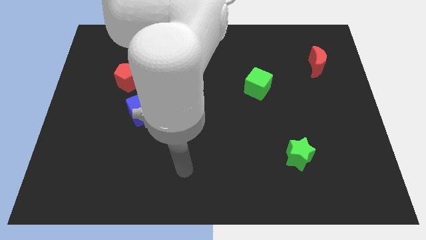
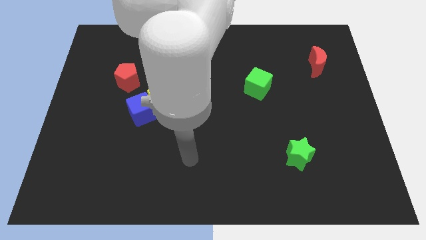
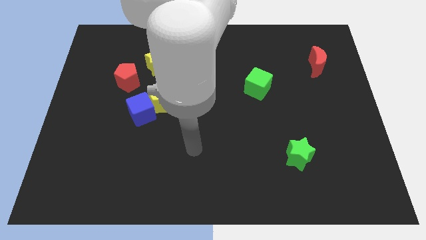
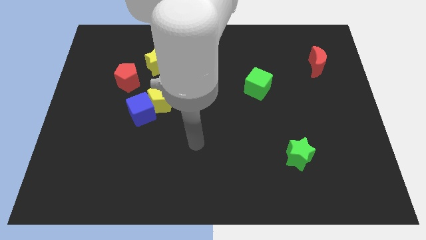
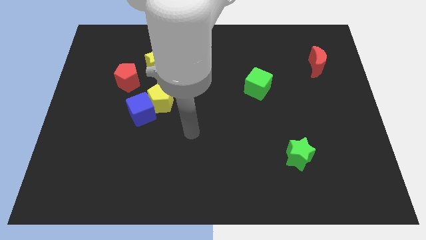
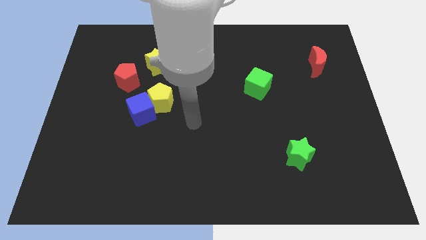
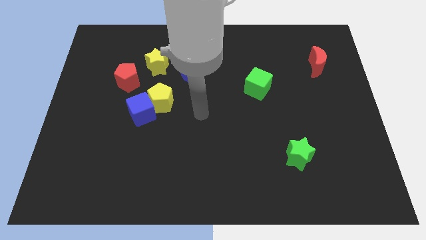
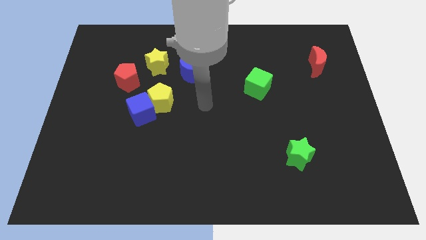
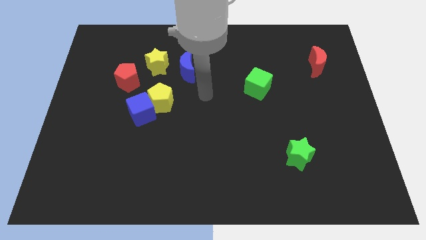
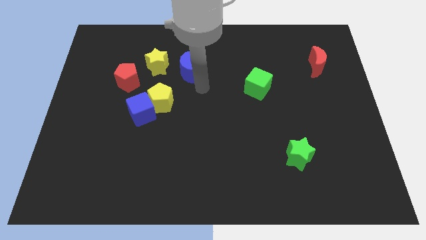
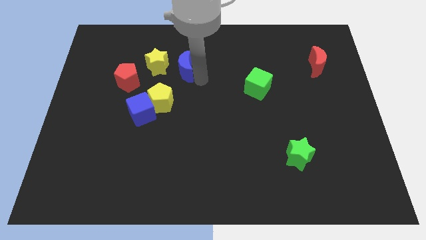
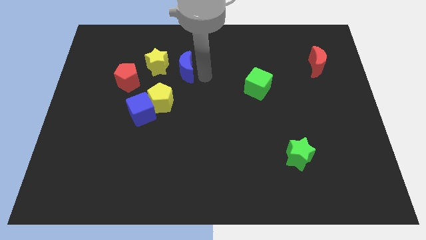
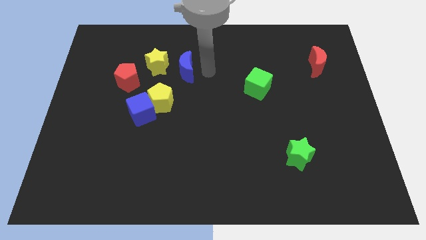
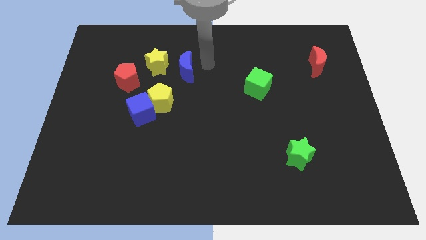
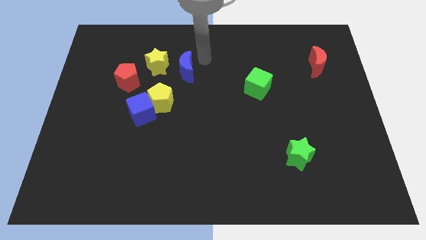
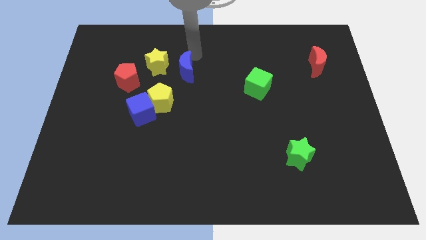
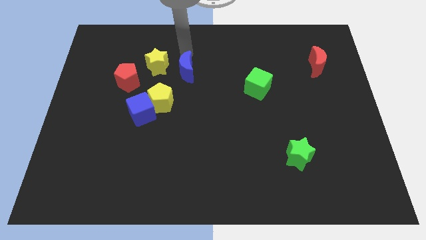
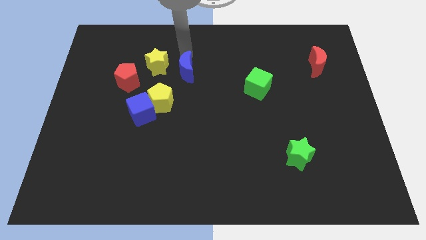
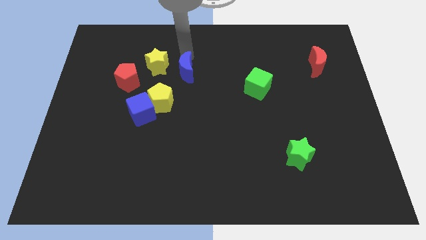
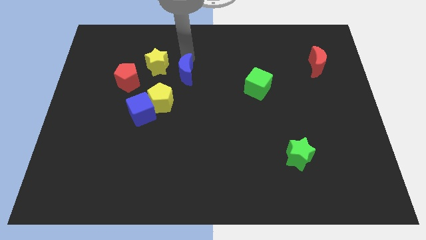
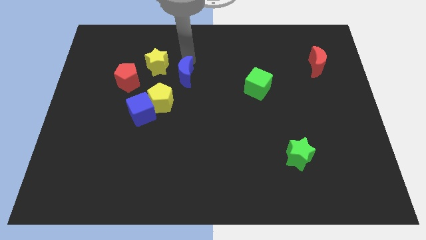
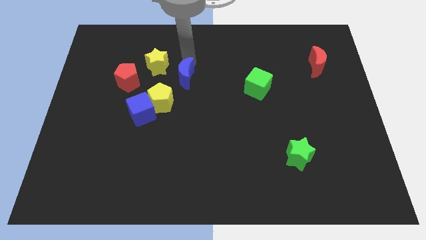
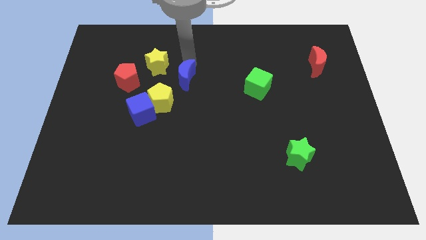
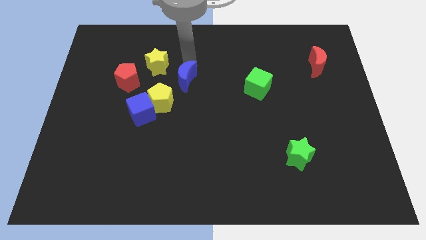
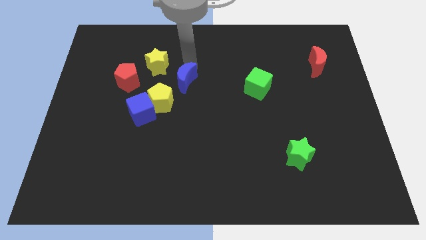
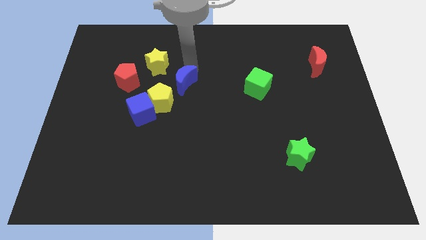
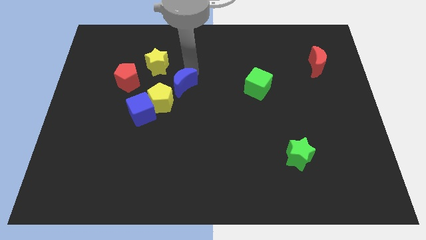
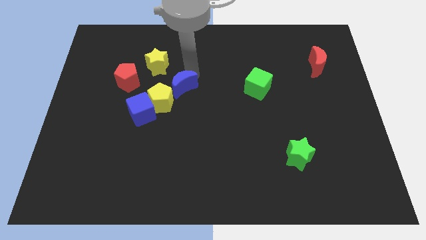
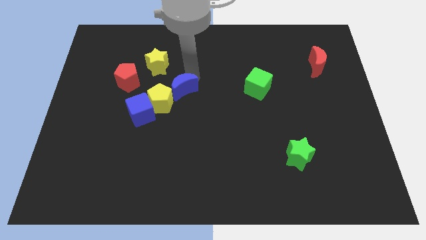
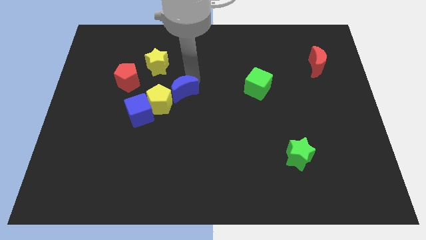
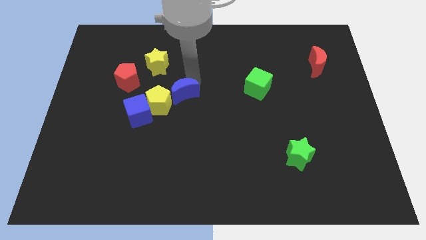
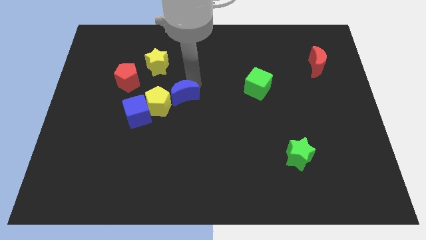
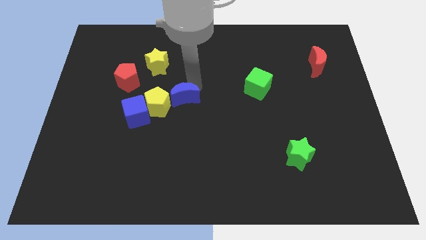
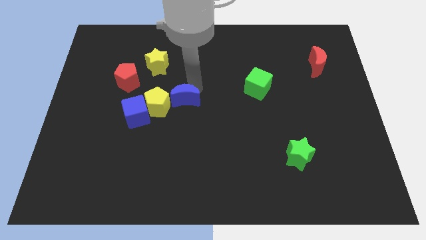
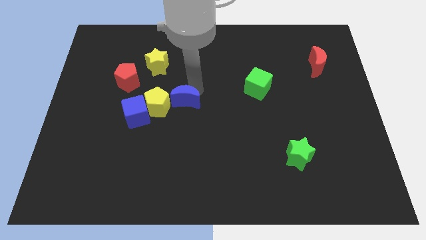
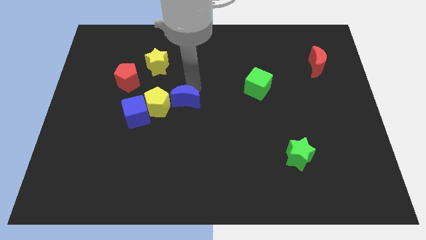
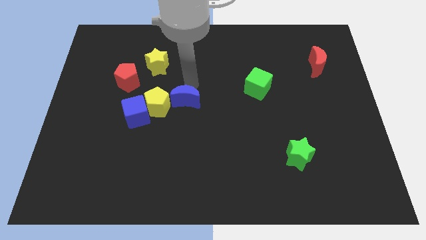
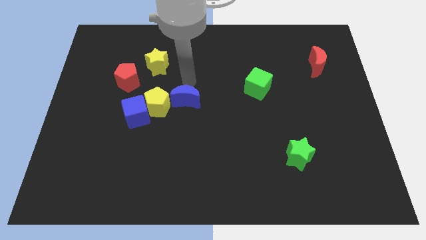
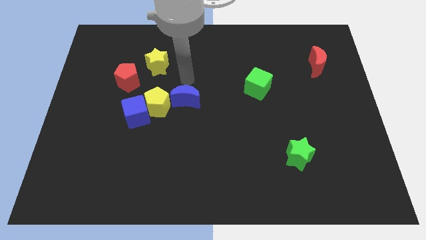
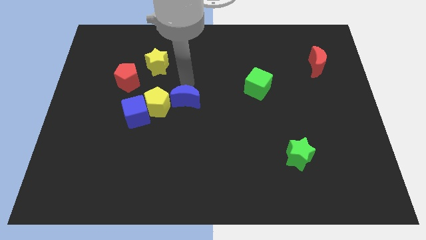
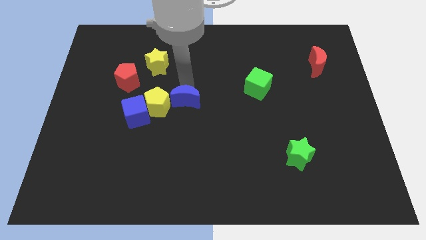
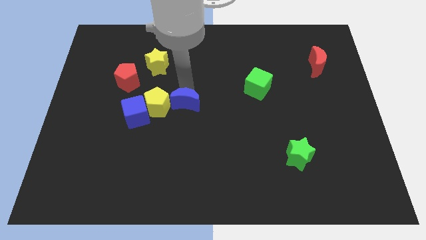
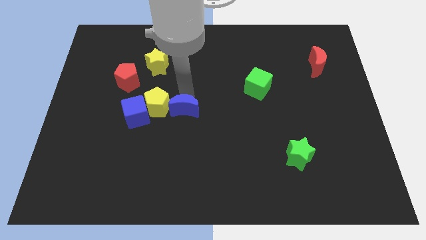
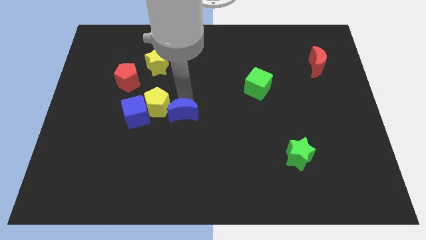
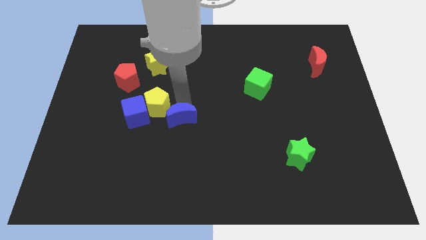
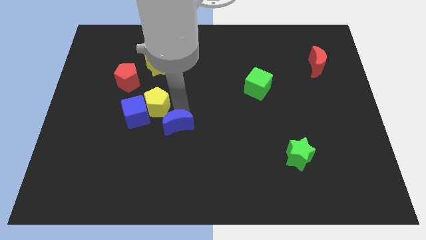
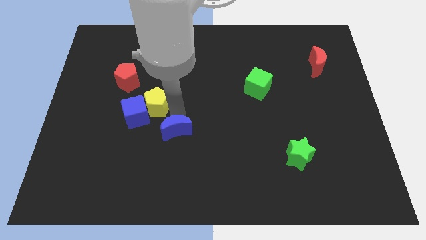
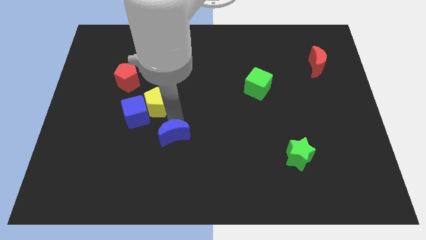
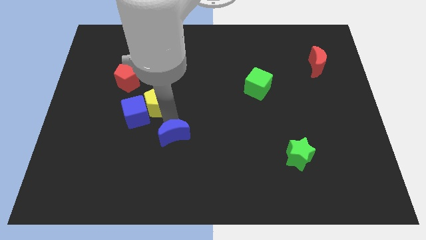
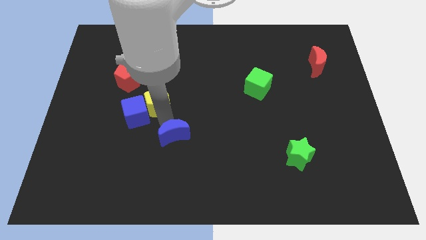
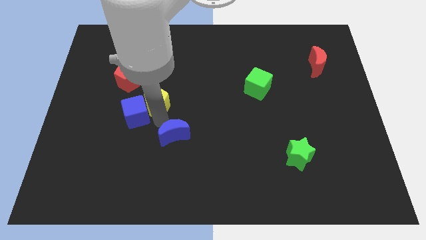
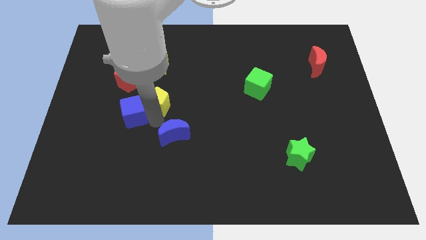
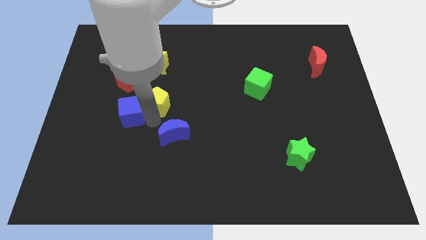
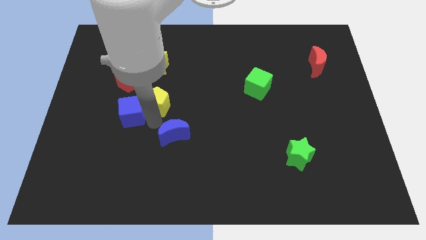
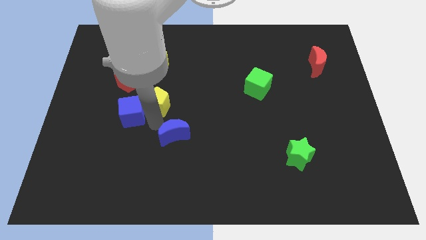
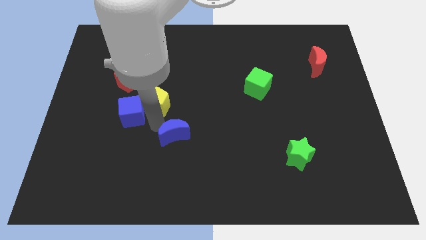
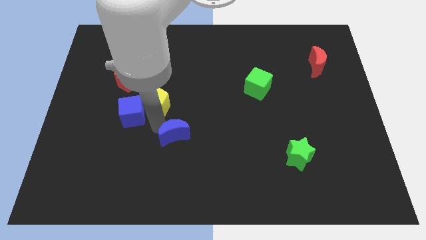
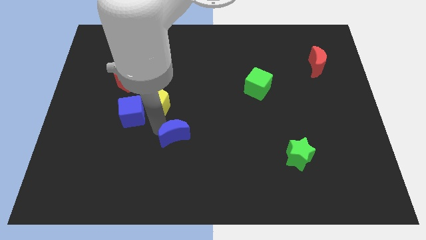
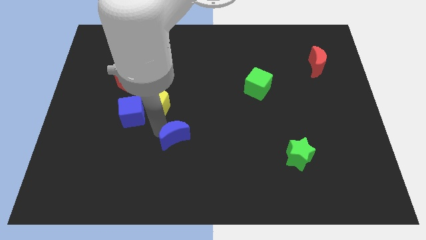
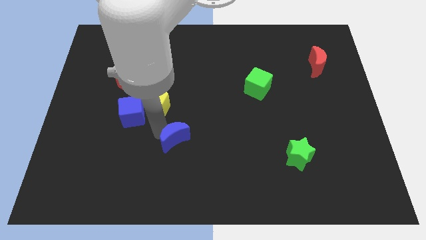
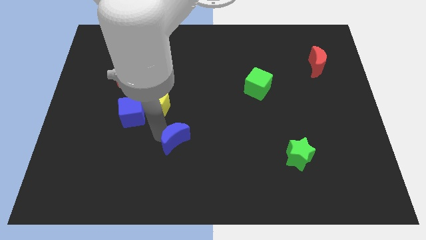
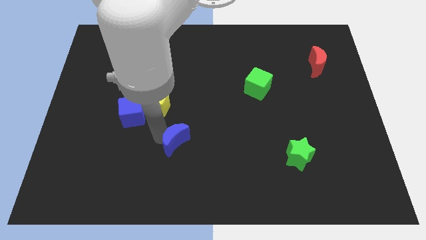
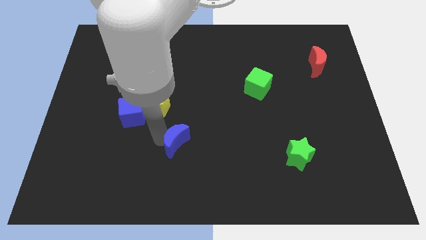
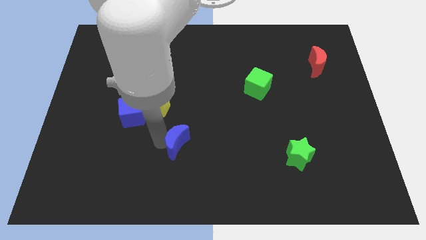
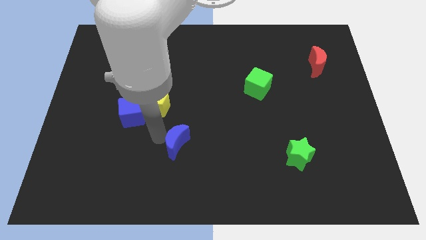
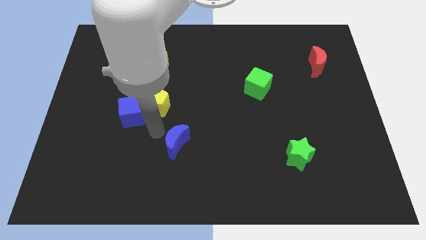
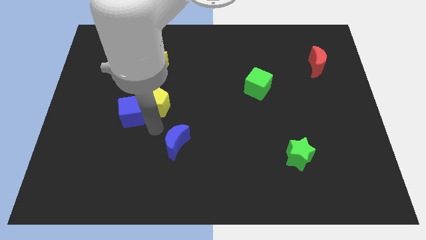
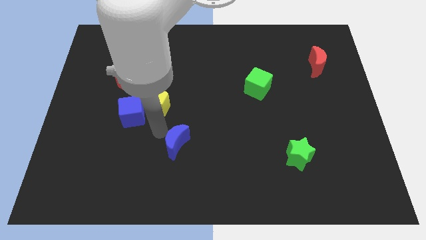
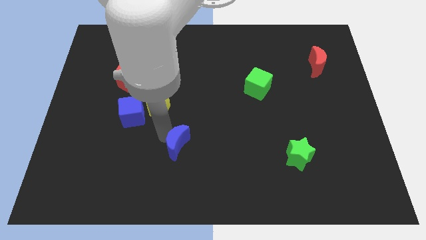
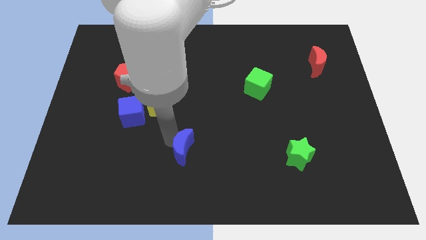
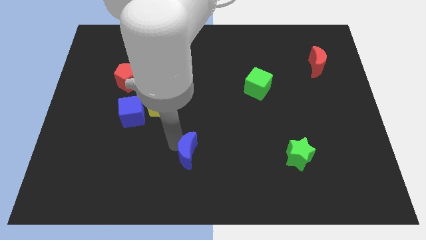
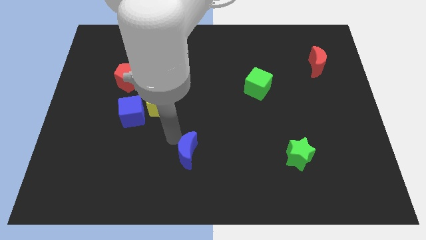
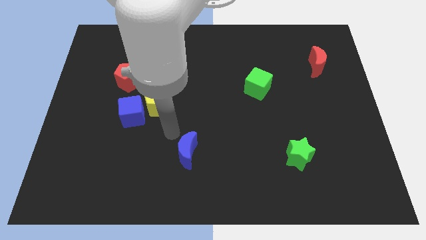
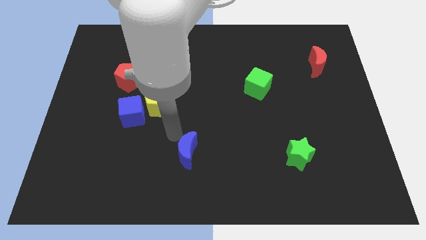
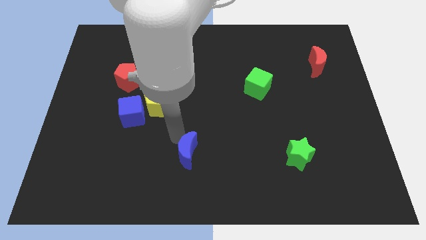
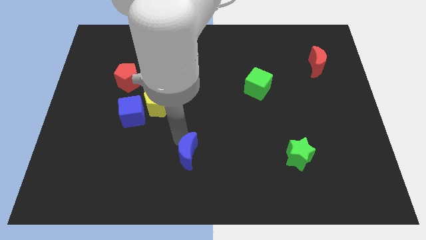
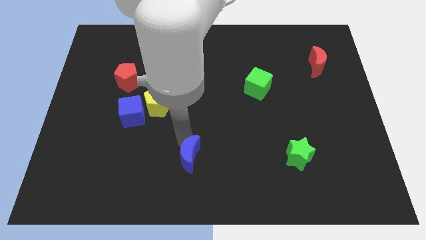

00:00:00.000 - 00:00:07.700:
move the blue moon to the bottom side

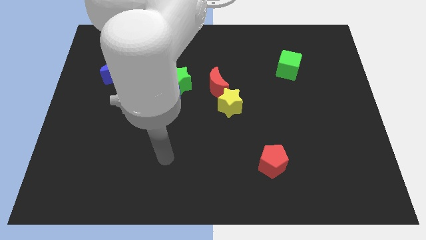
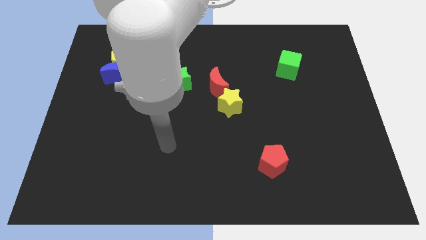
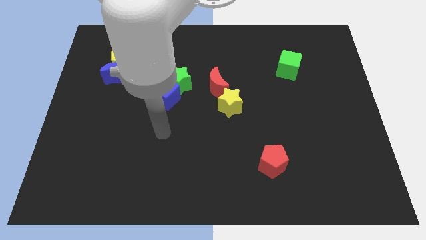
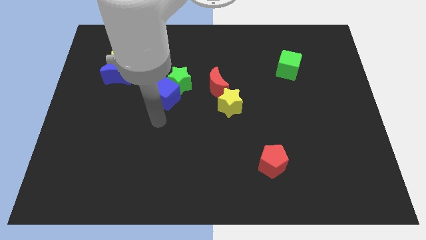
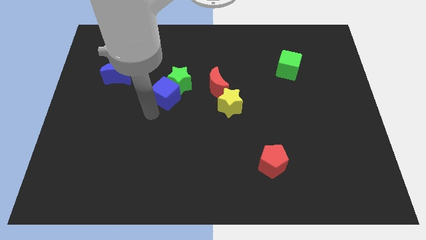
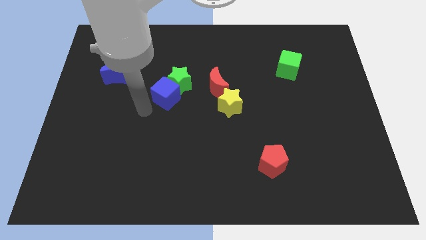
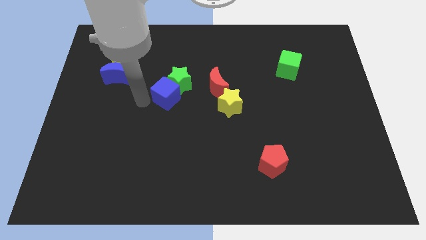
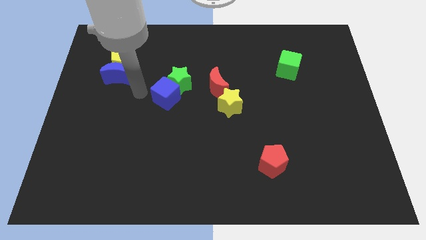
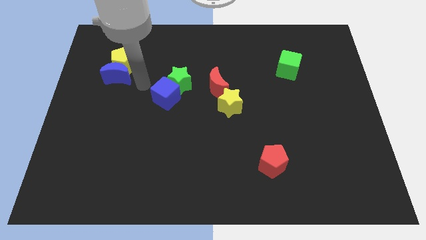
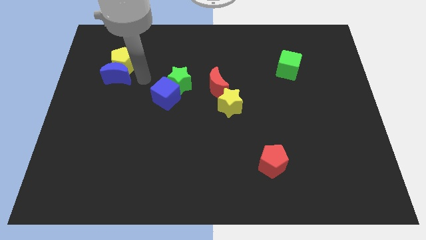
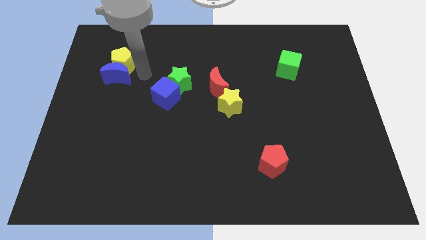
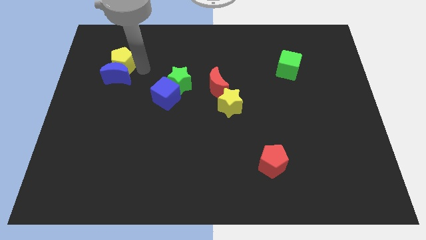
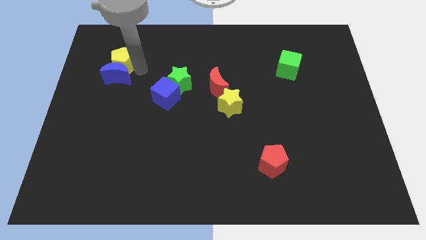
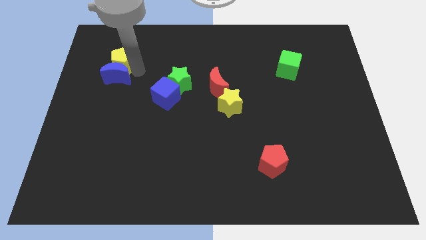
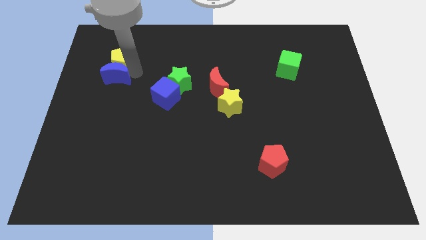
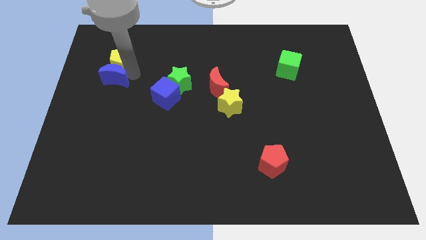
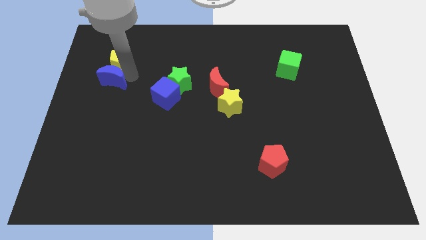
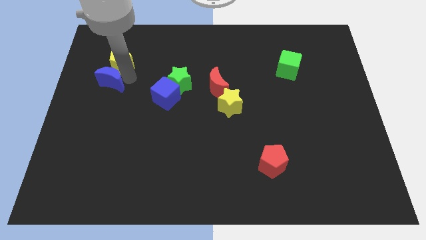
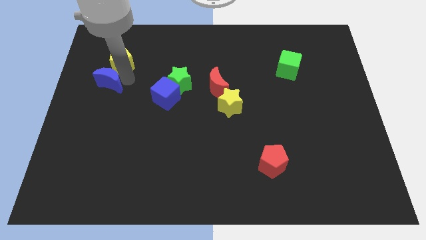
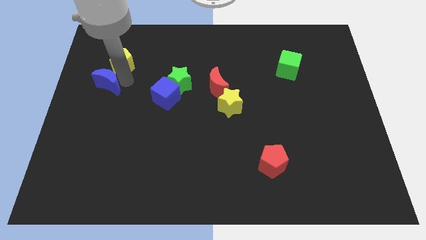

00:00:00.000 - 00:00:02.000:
move the blue moon to the center left
